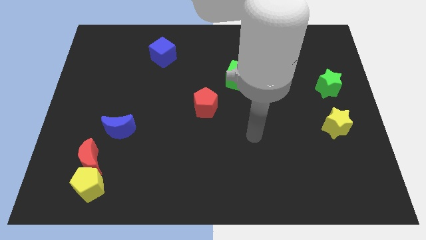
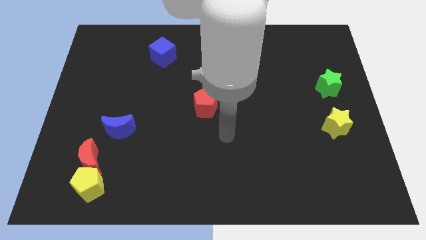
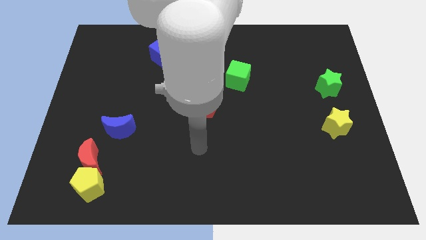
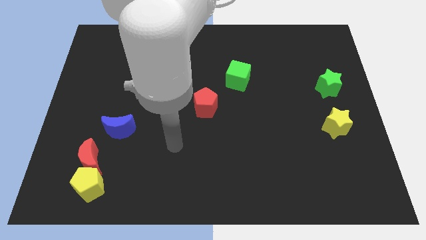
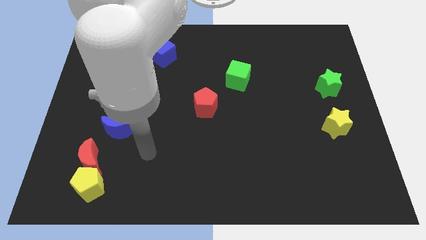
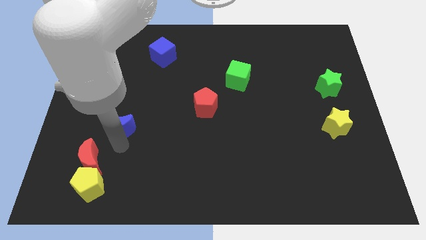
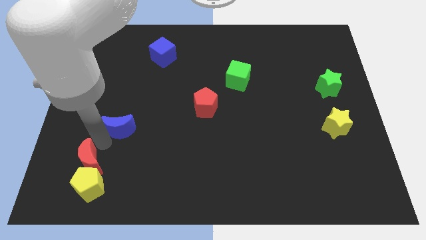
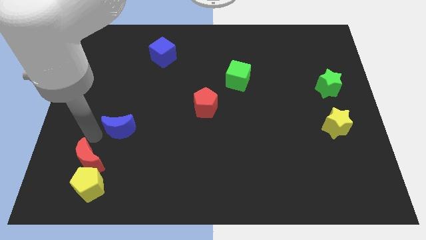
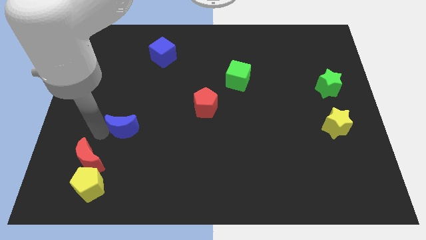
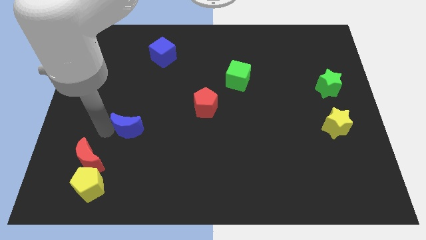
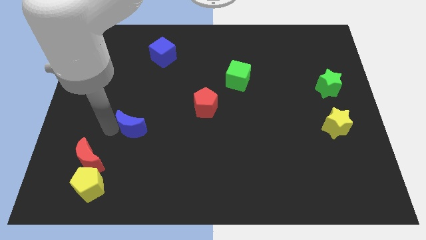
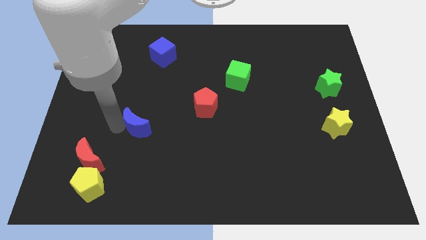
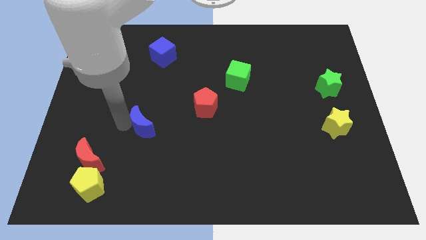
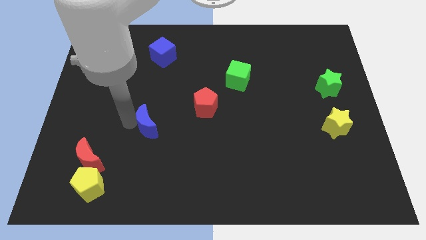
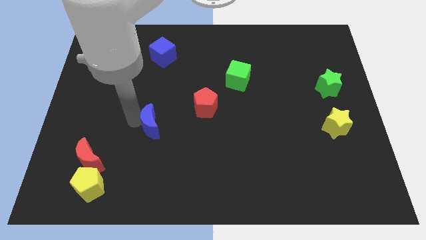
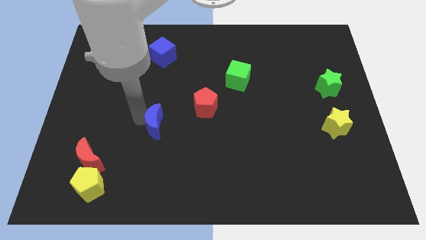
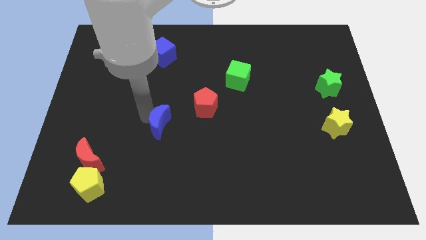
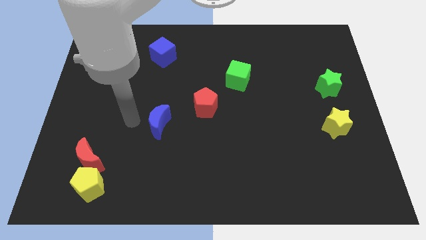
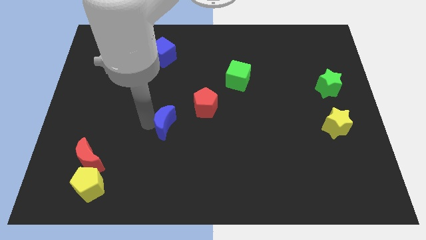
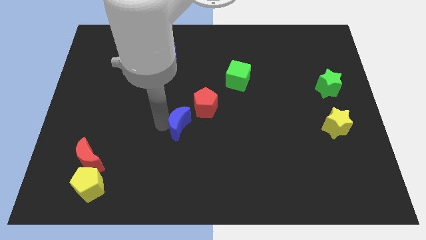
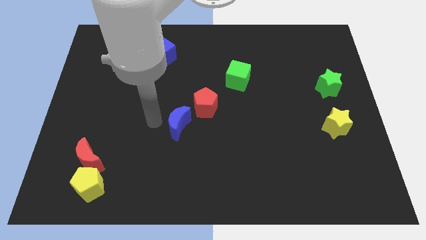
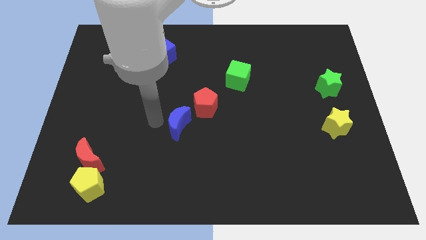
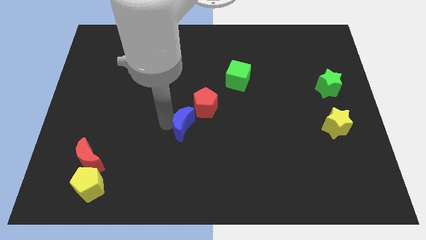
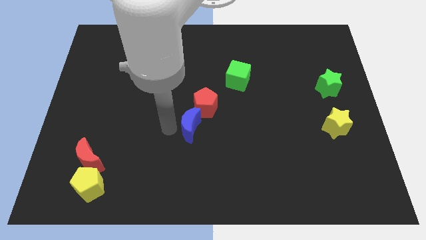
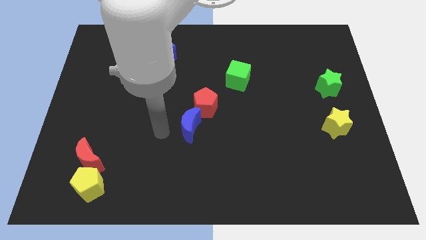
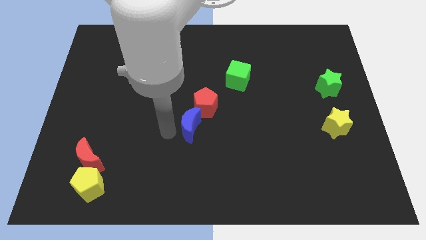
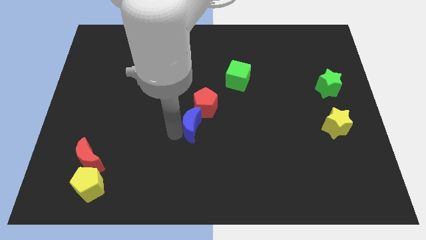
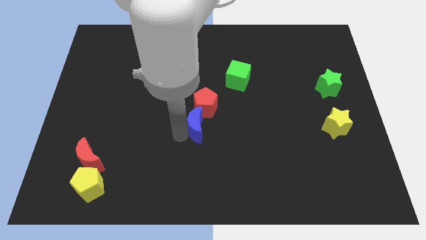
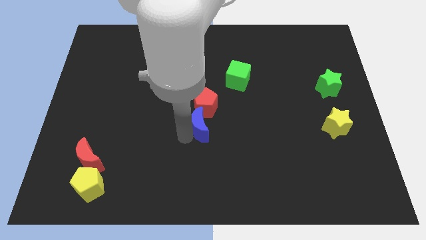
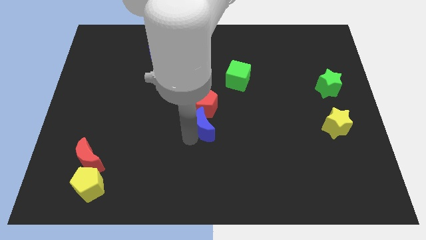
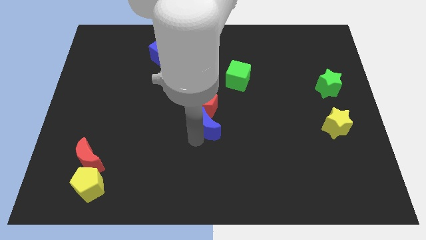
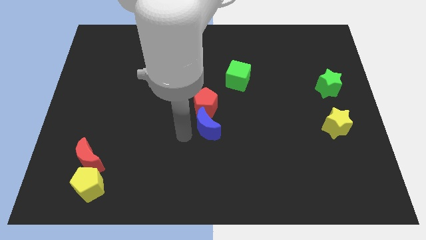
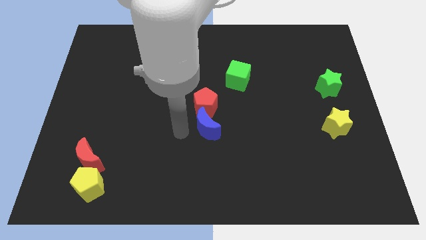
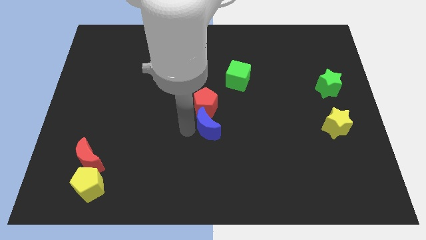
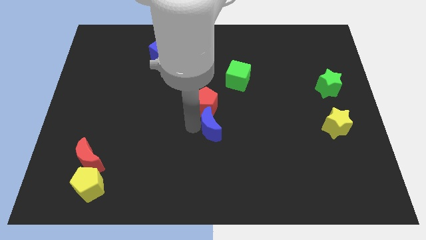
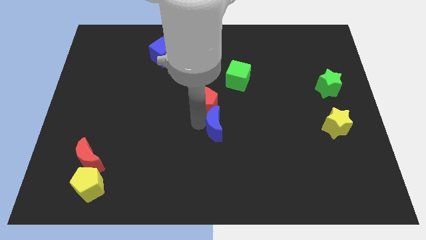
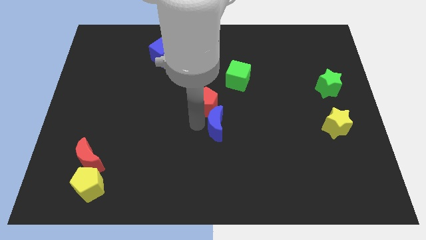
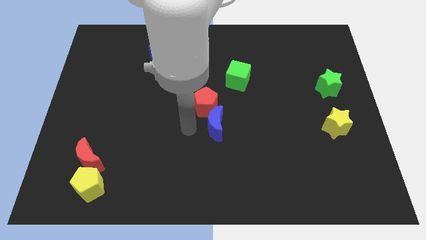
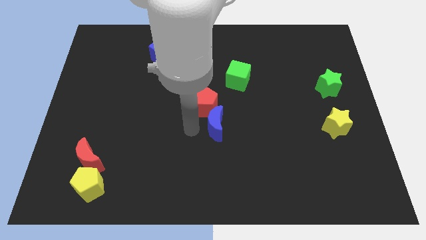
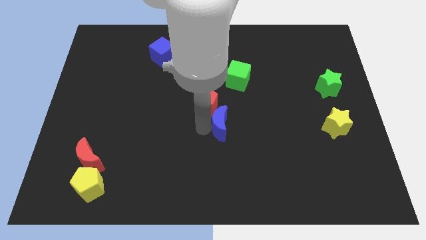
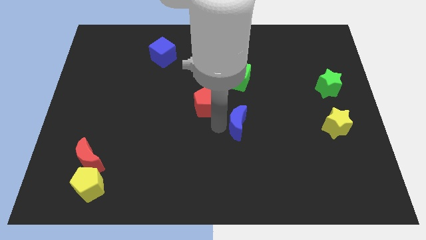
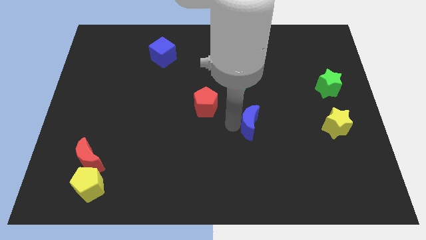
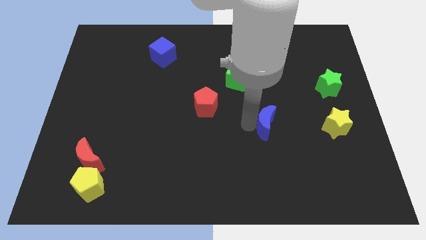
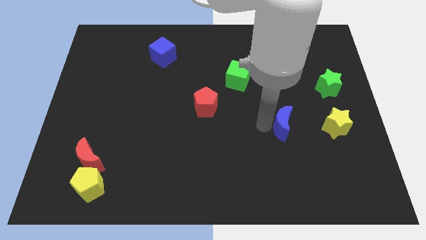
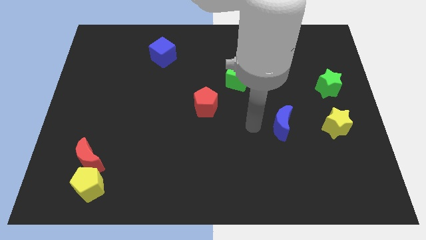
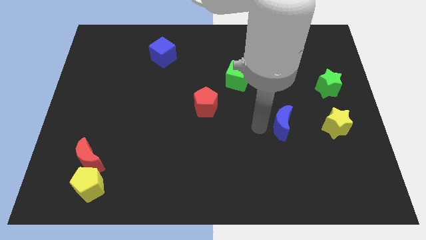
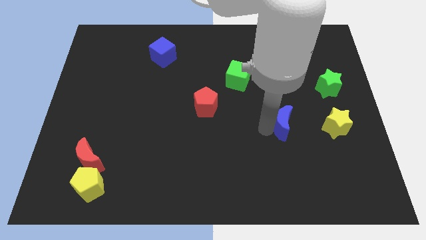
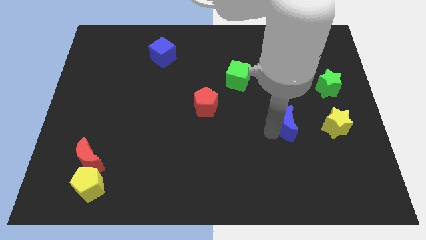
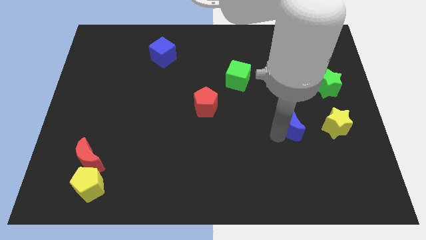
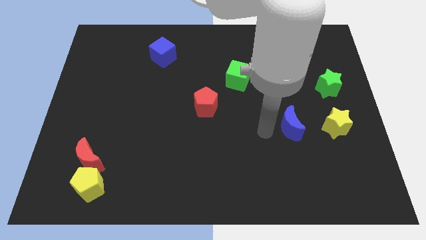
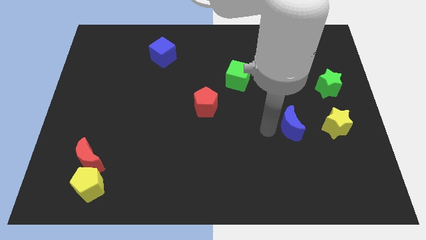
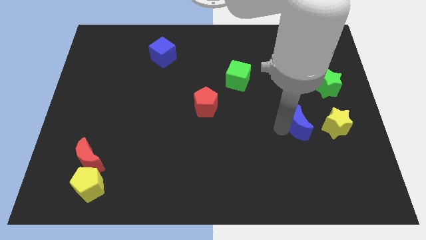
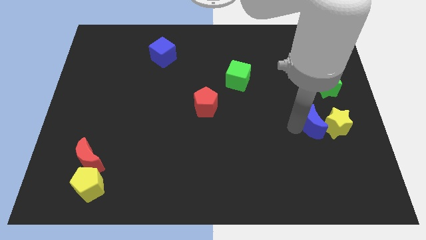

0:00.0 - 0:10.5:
push the blue moon close to the yellow star

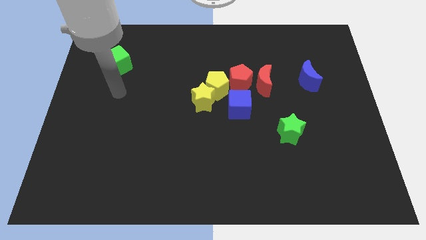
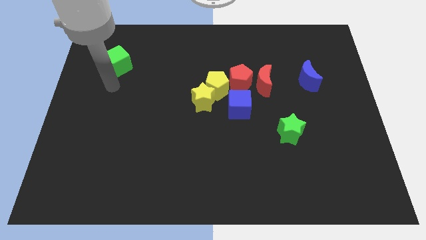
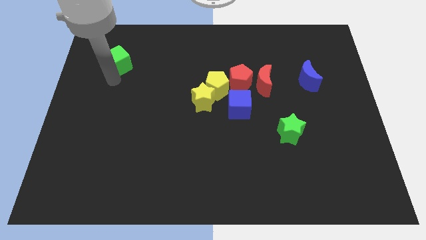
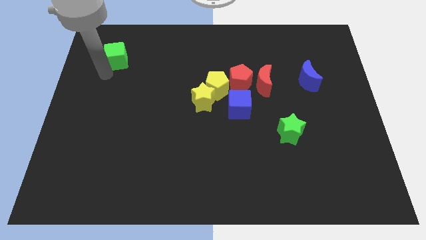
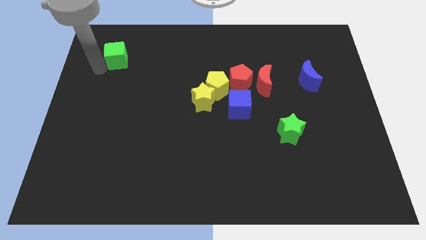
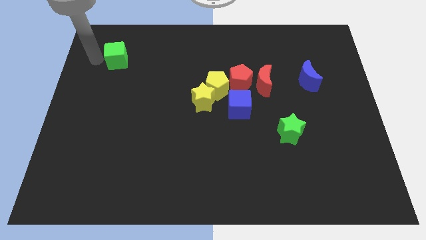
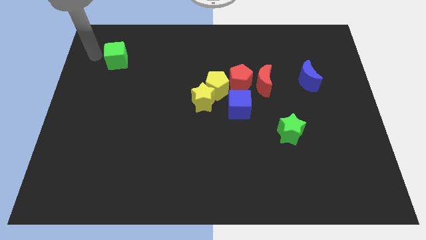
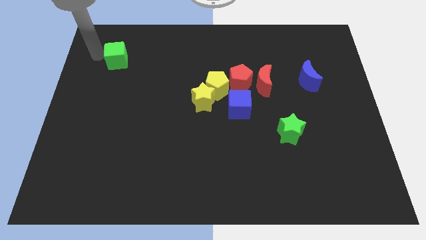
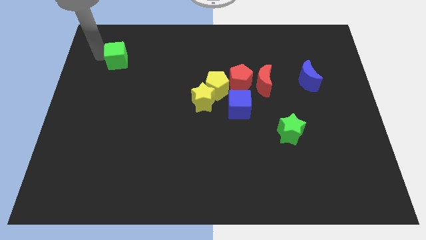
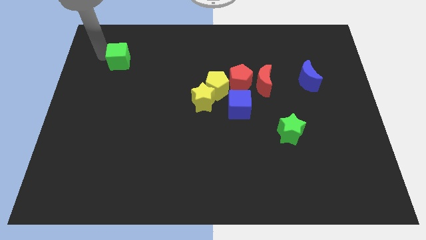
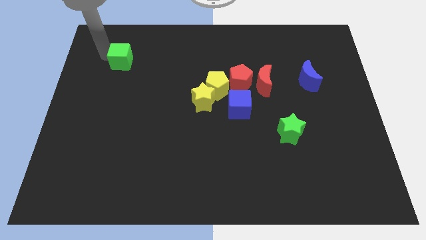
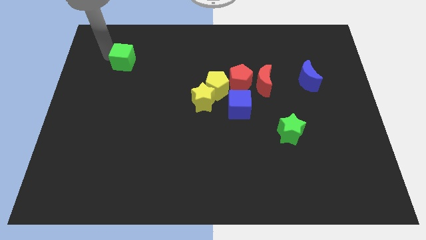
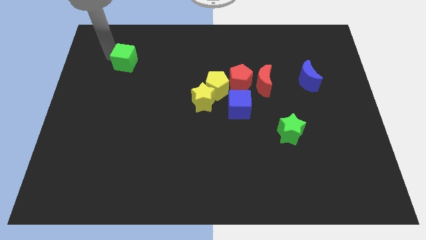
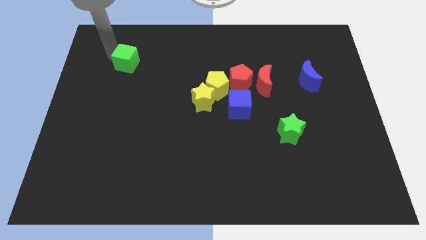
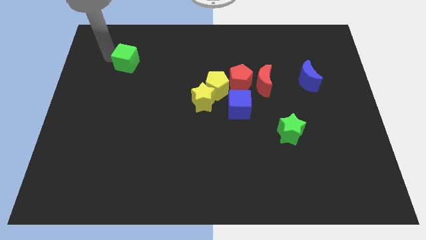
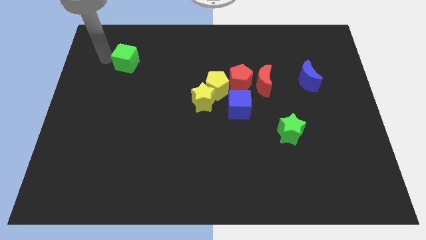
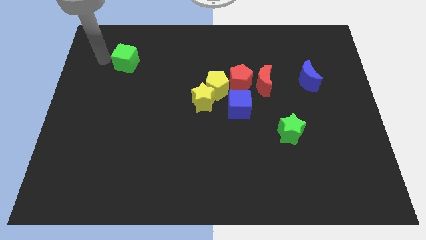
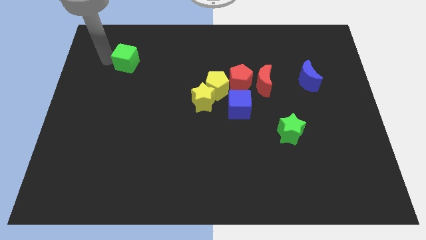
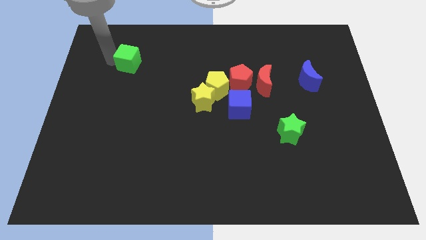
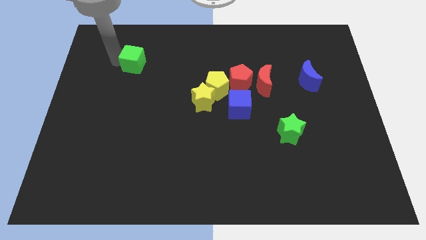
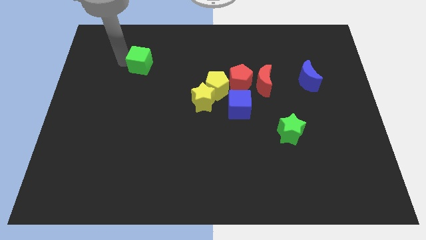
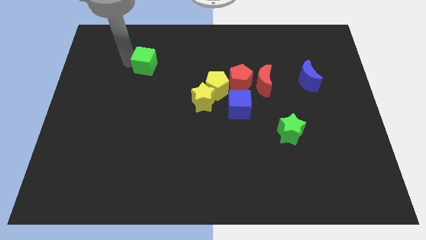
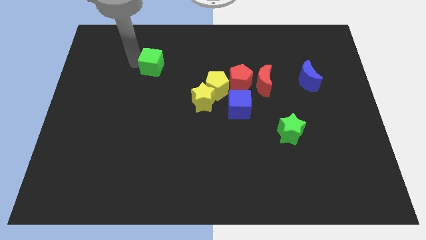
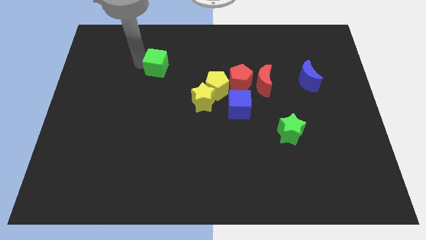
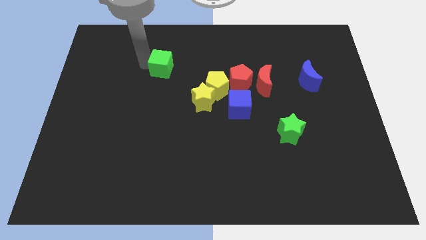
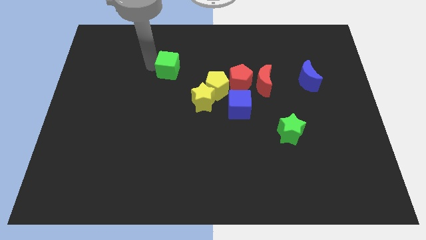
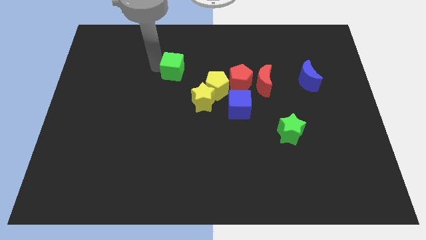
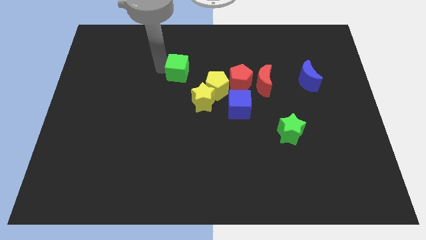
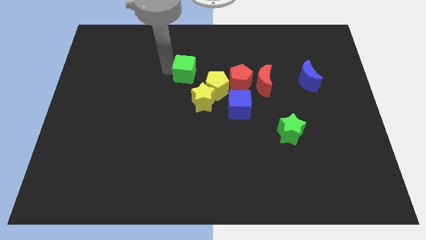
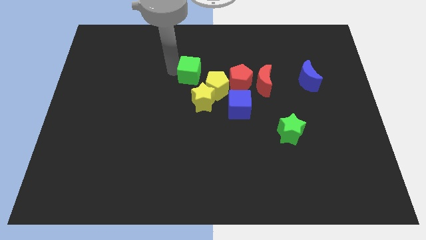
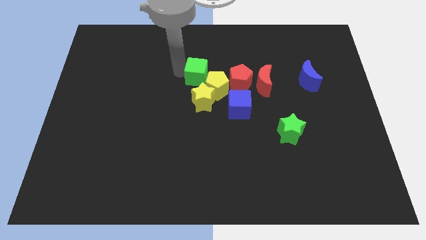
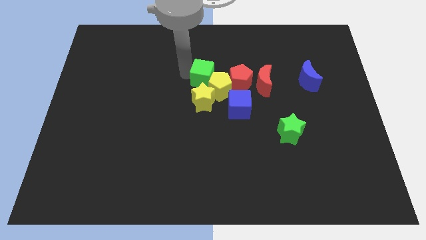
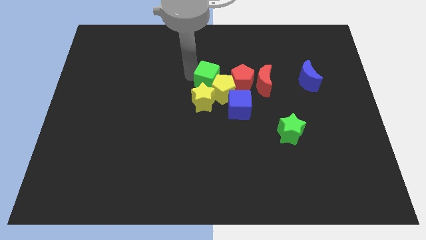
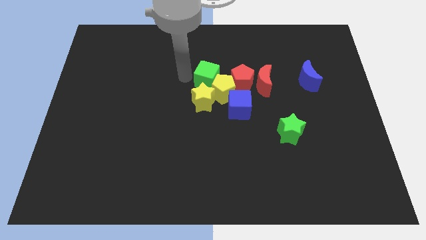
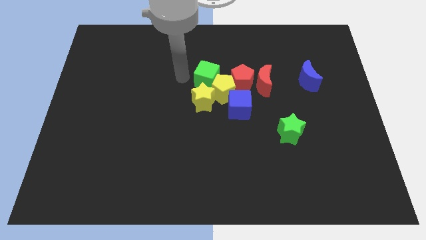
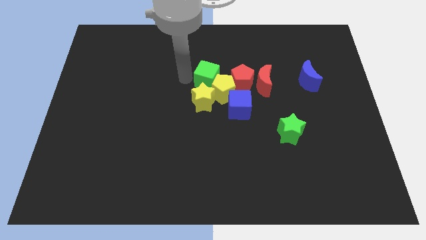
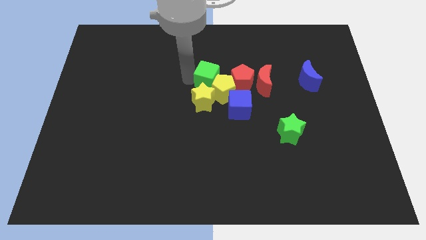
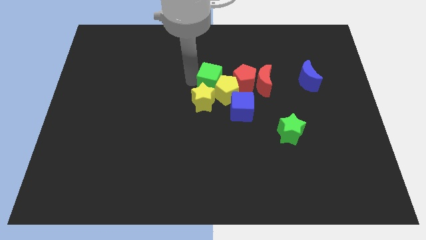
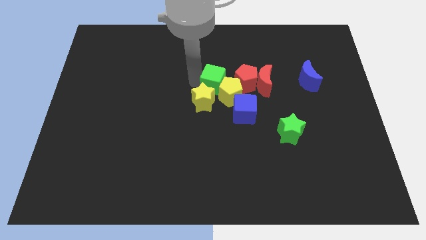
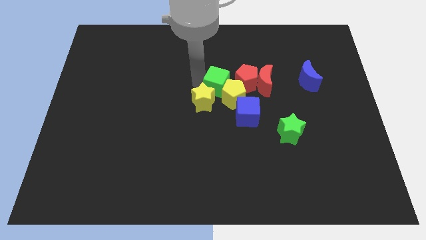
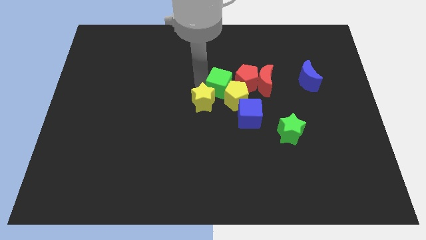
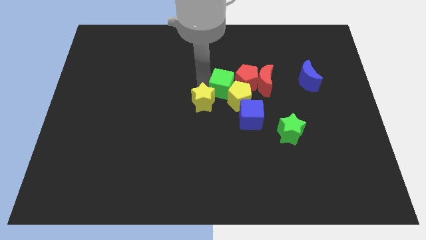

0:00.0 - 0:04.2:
put the green cube next to the red pentagon
